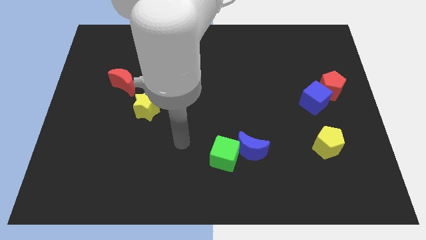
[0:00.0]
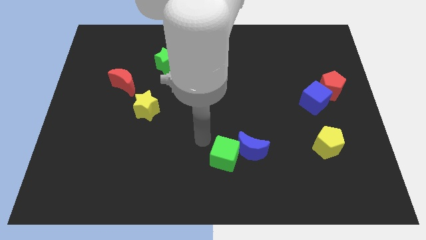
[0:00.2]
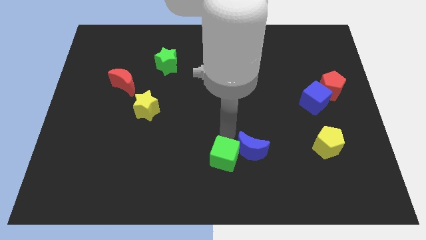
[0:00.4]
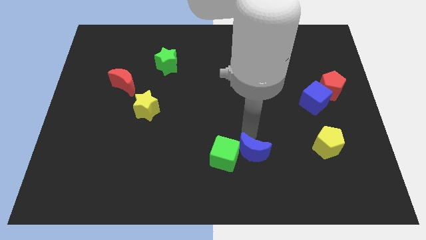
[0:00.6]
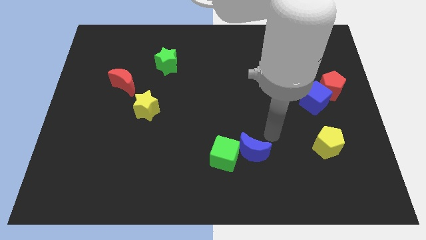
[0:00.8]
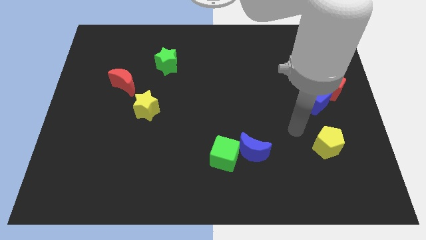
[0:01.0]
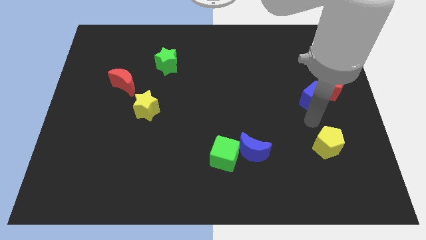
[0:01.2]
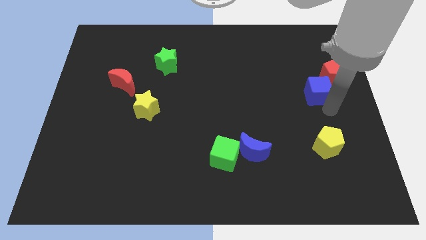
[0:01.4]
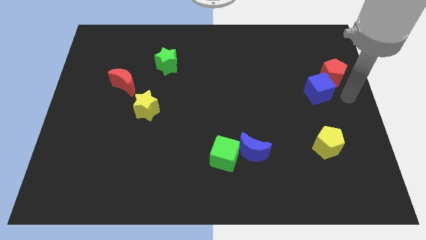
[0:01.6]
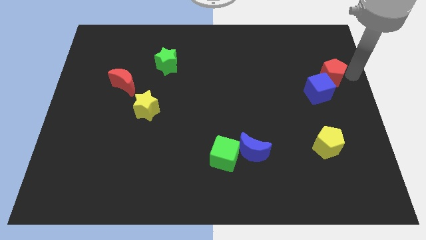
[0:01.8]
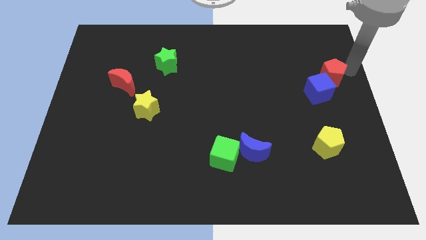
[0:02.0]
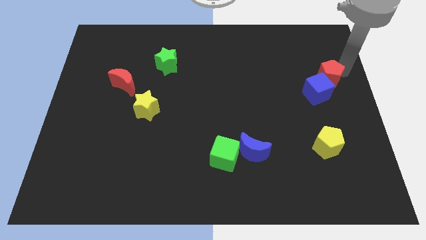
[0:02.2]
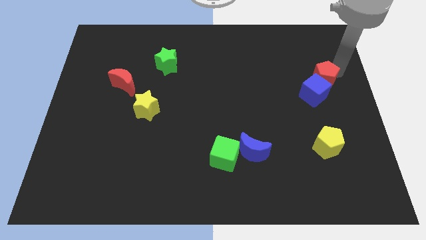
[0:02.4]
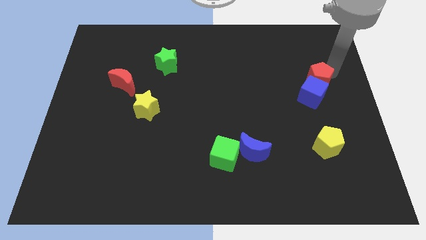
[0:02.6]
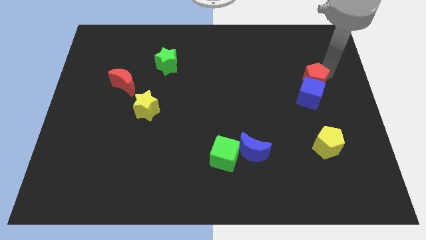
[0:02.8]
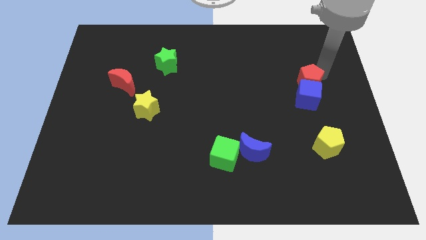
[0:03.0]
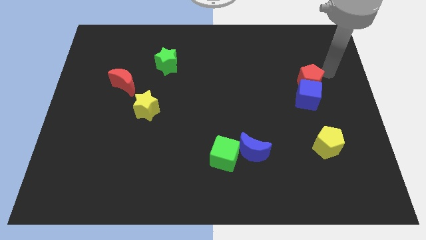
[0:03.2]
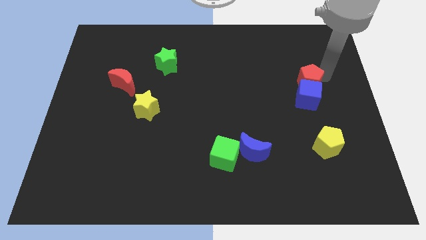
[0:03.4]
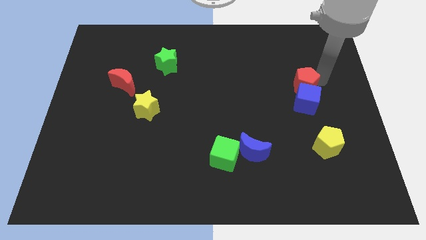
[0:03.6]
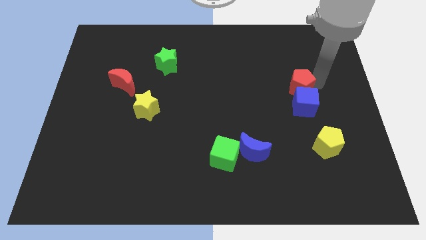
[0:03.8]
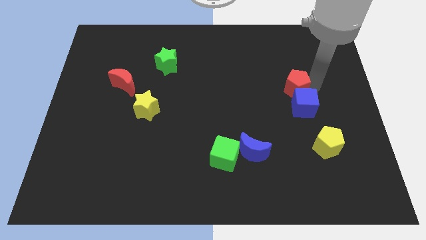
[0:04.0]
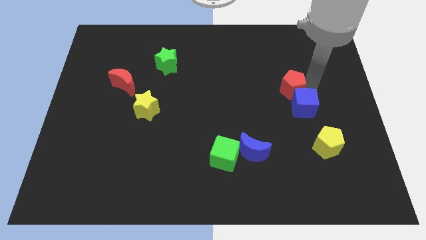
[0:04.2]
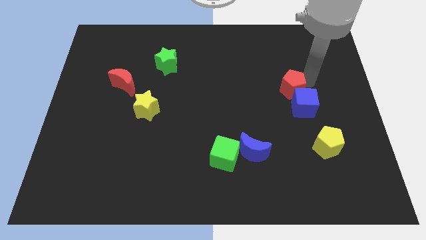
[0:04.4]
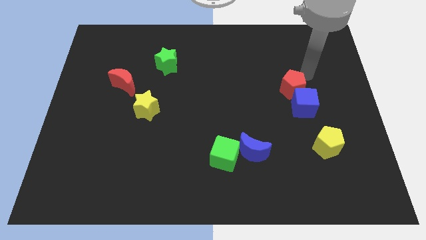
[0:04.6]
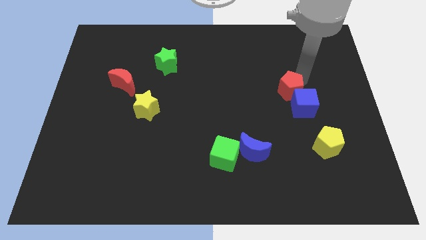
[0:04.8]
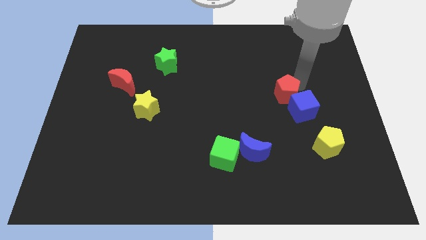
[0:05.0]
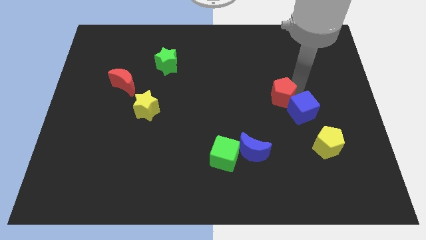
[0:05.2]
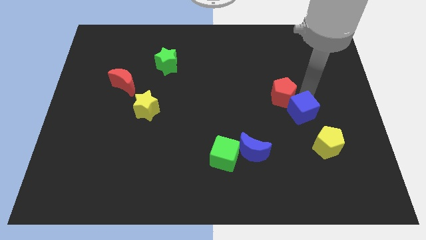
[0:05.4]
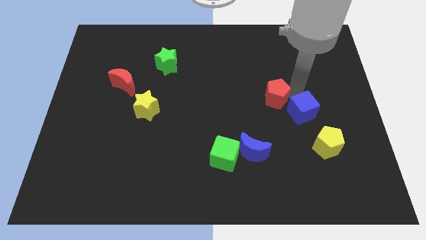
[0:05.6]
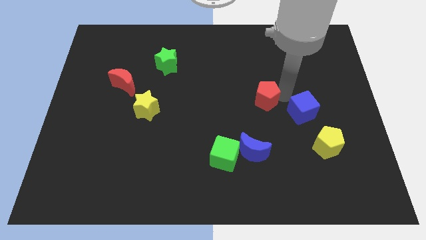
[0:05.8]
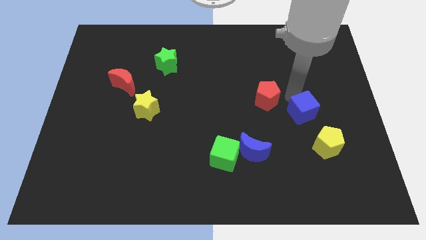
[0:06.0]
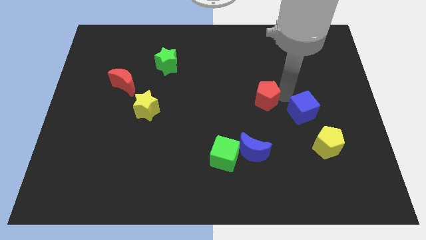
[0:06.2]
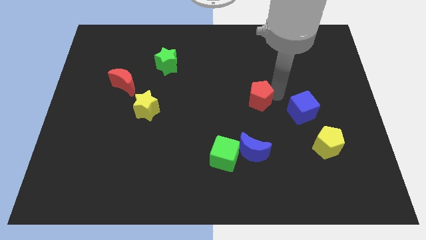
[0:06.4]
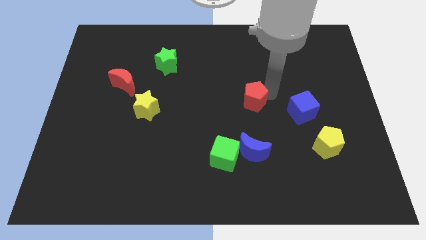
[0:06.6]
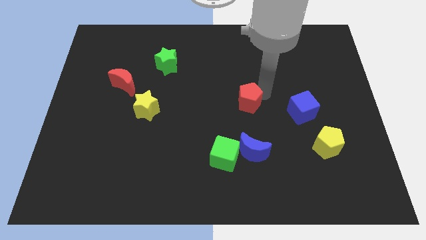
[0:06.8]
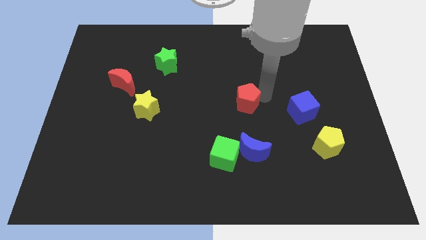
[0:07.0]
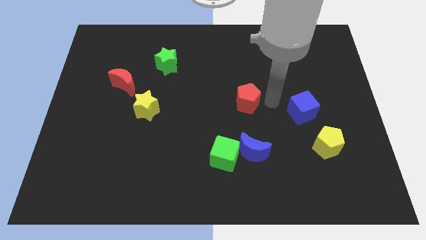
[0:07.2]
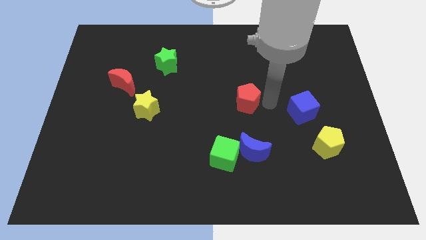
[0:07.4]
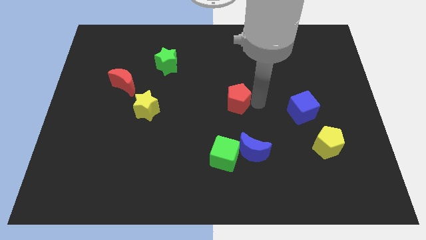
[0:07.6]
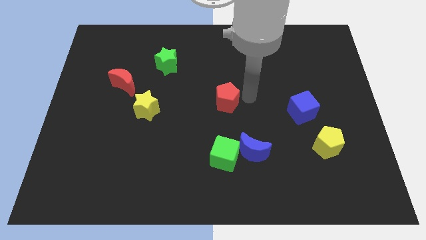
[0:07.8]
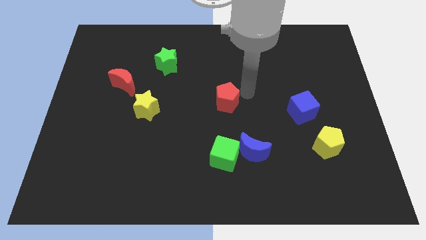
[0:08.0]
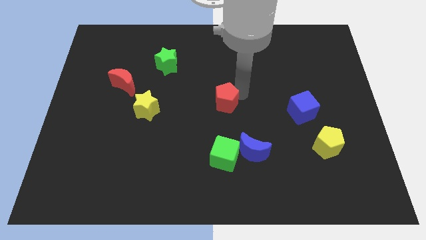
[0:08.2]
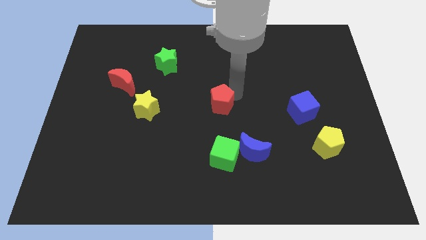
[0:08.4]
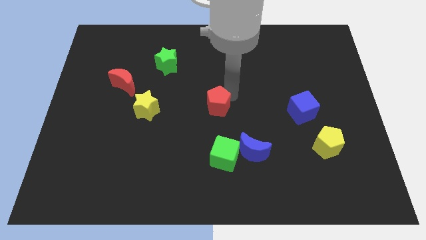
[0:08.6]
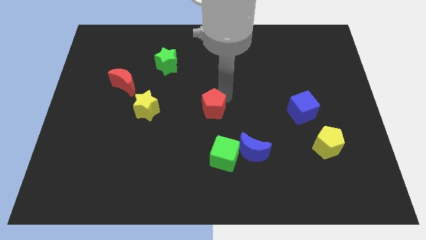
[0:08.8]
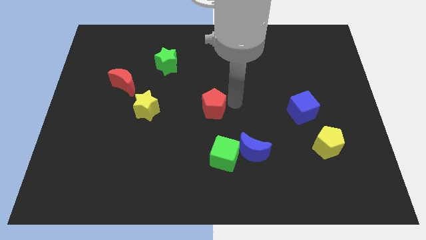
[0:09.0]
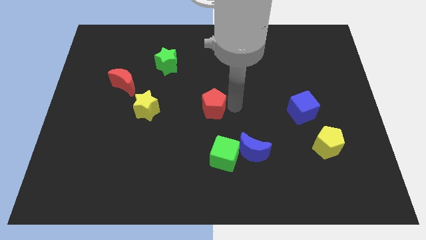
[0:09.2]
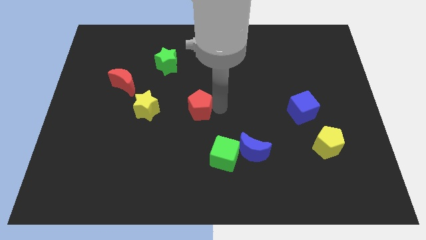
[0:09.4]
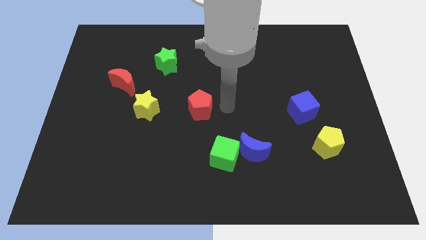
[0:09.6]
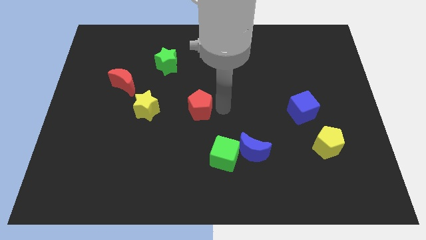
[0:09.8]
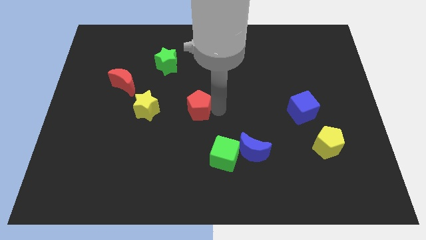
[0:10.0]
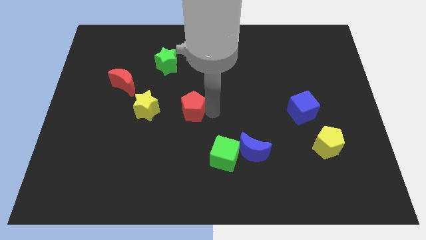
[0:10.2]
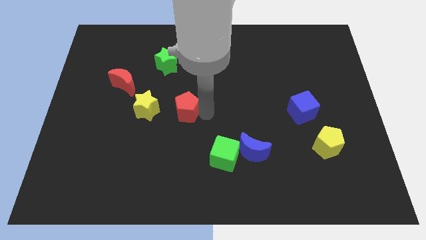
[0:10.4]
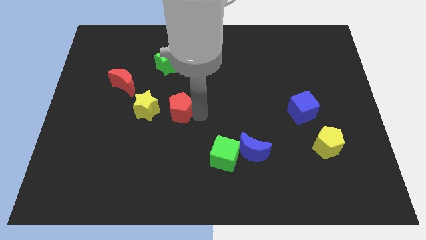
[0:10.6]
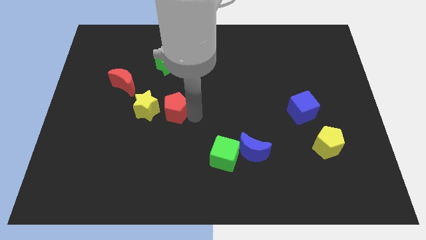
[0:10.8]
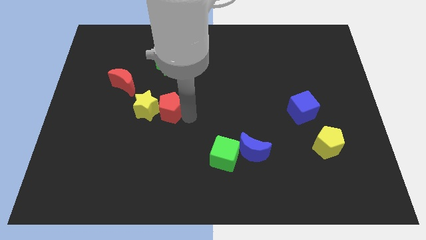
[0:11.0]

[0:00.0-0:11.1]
slide the red pentagon towards the yellow star

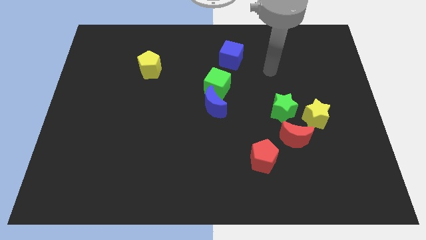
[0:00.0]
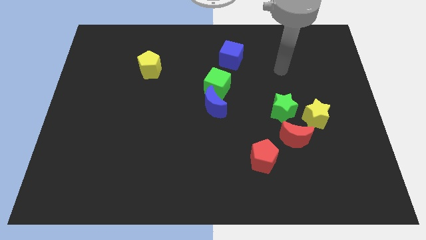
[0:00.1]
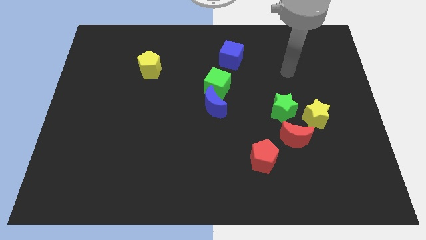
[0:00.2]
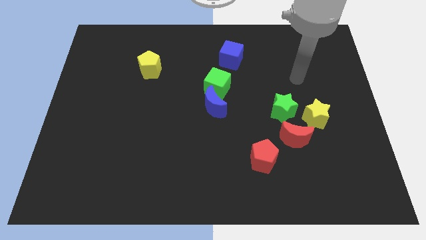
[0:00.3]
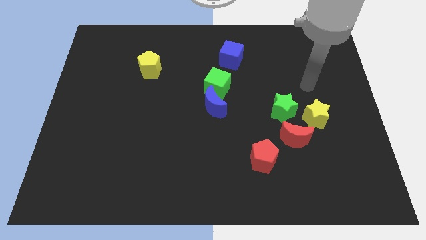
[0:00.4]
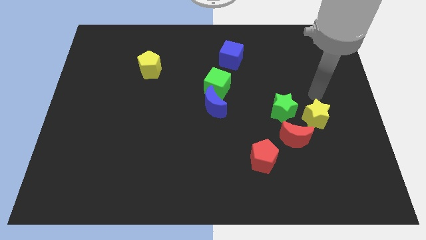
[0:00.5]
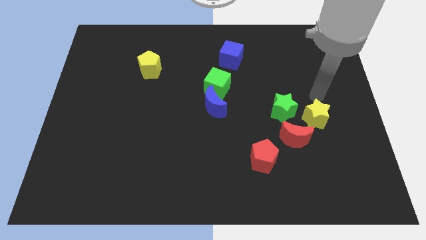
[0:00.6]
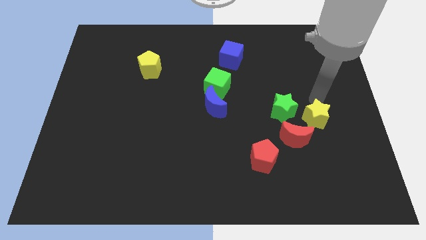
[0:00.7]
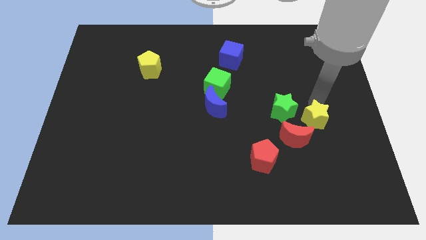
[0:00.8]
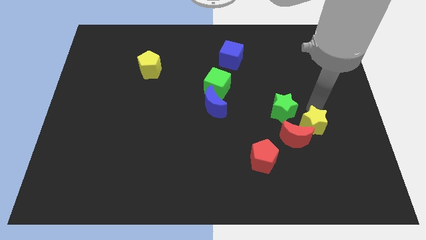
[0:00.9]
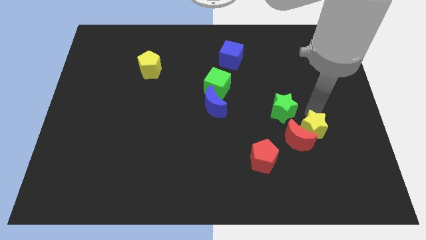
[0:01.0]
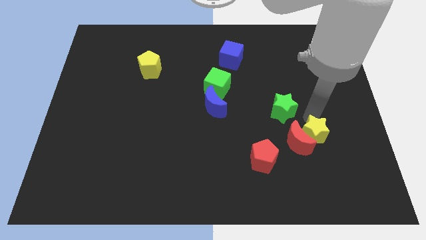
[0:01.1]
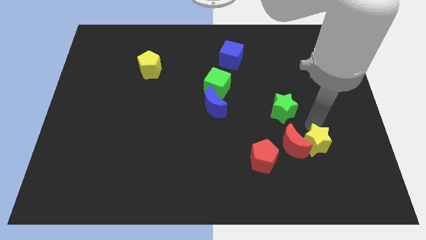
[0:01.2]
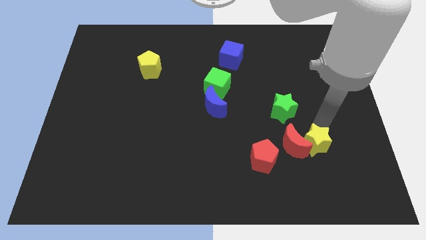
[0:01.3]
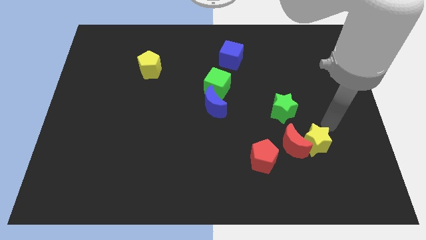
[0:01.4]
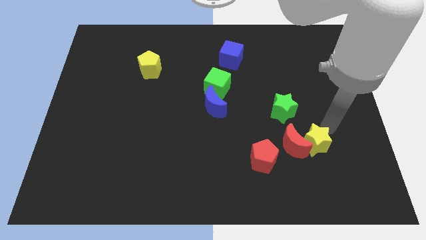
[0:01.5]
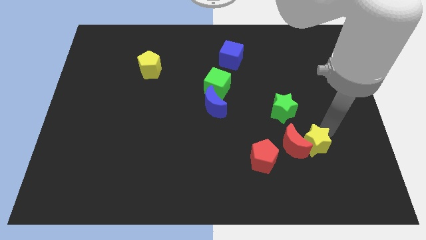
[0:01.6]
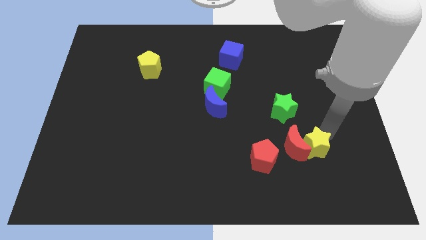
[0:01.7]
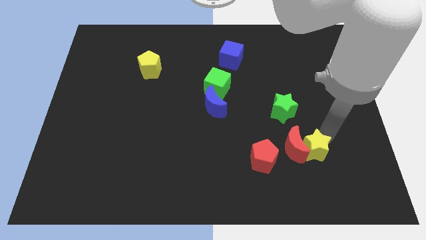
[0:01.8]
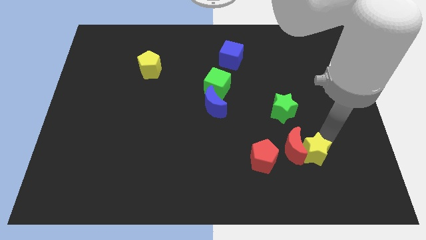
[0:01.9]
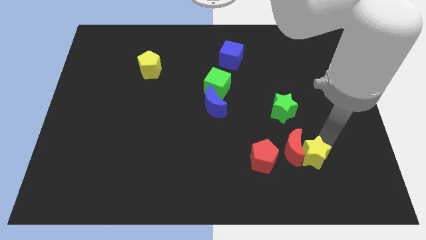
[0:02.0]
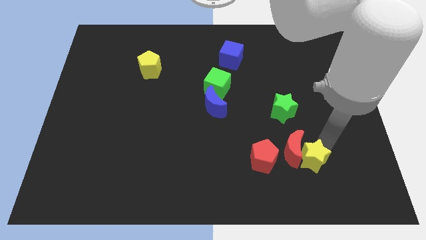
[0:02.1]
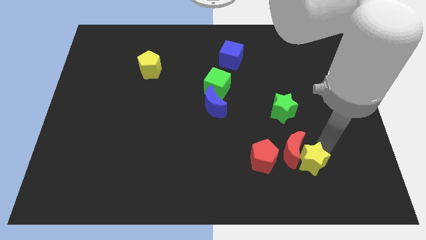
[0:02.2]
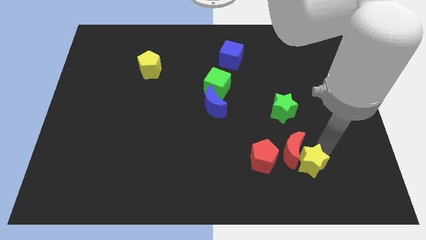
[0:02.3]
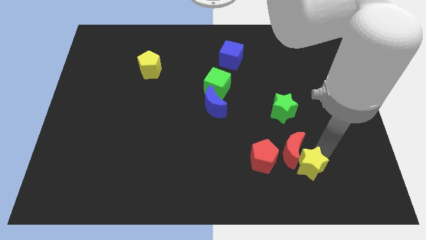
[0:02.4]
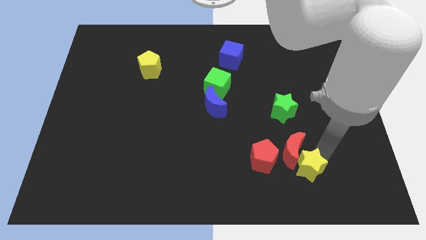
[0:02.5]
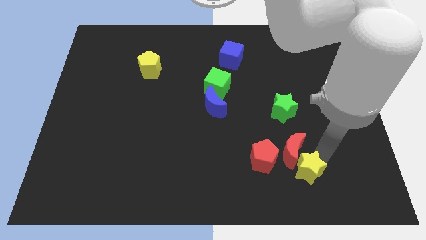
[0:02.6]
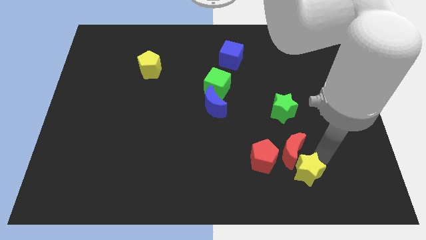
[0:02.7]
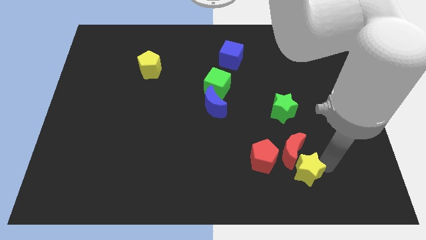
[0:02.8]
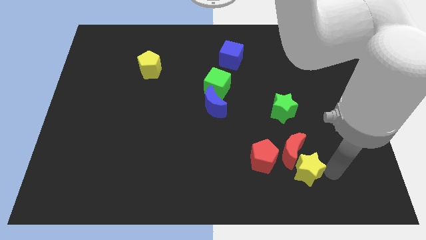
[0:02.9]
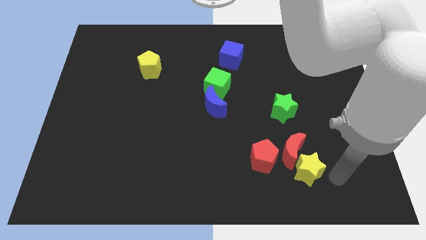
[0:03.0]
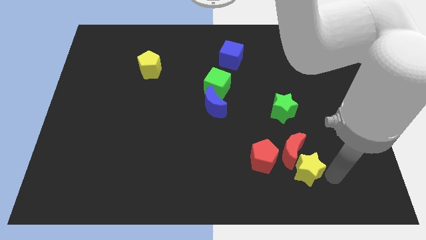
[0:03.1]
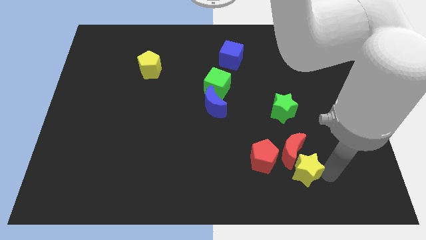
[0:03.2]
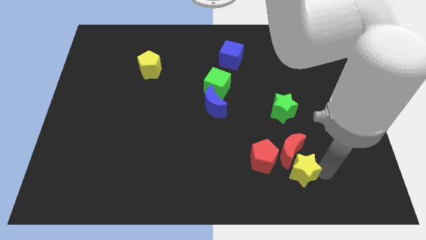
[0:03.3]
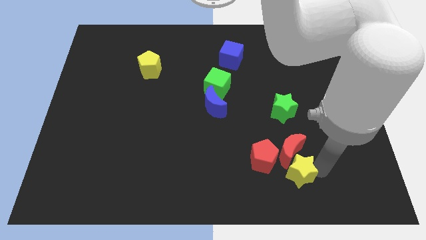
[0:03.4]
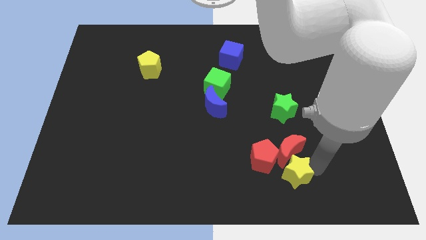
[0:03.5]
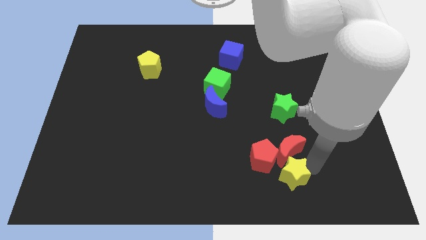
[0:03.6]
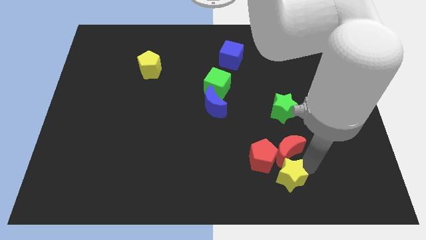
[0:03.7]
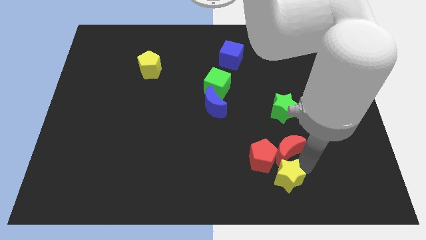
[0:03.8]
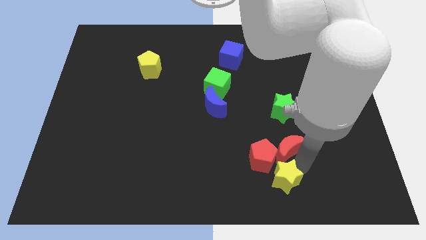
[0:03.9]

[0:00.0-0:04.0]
move the yellow star towards the red pentagon
